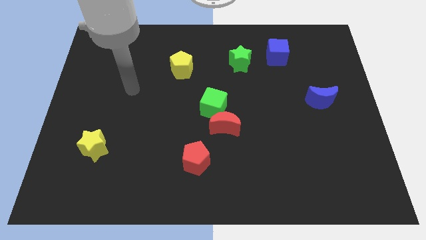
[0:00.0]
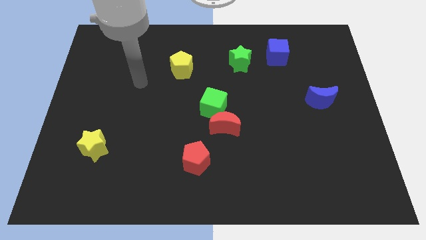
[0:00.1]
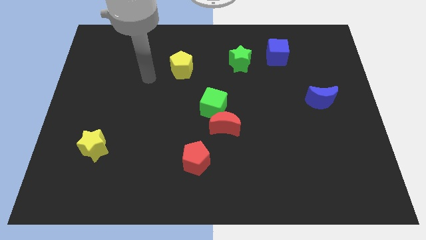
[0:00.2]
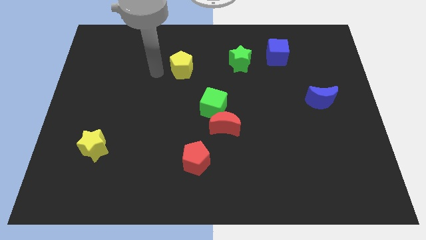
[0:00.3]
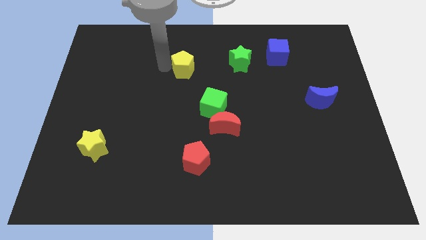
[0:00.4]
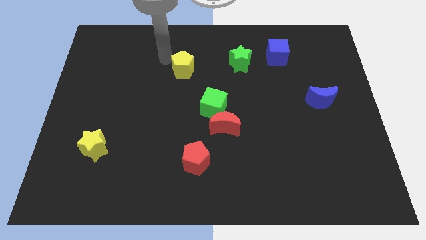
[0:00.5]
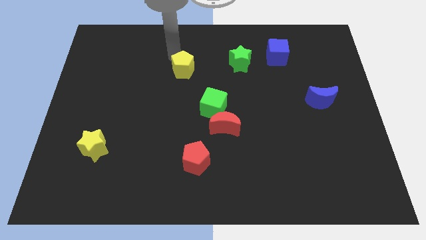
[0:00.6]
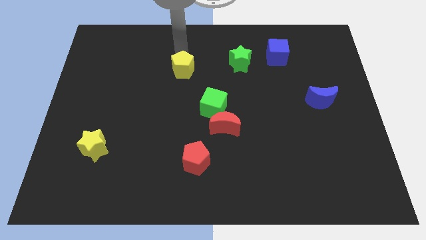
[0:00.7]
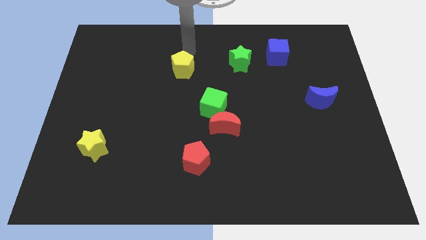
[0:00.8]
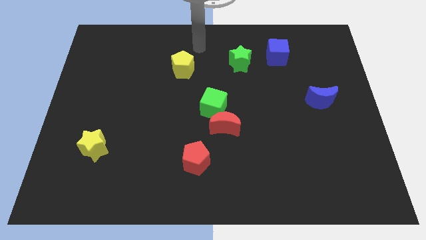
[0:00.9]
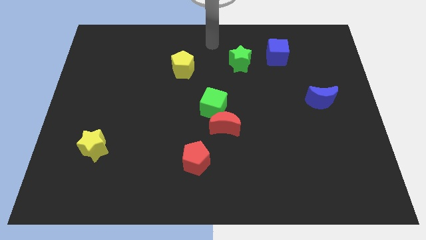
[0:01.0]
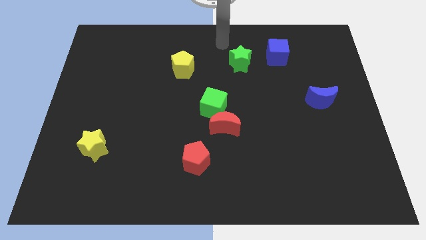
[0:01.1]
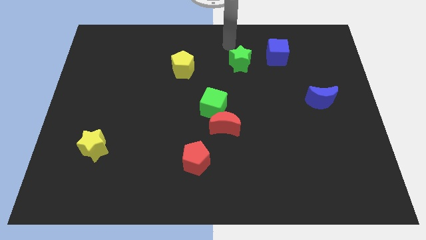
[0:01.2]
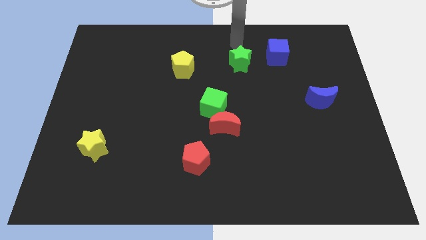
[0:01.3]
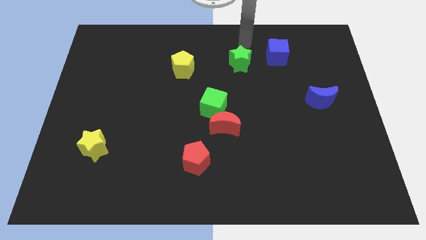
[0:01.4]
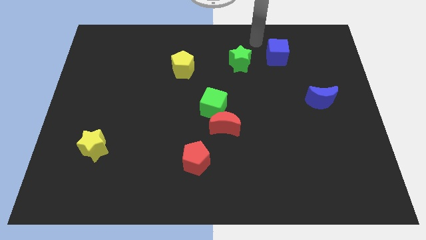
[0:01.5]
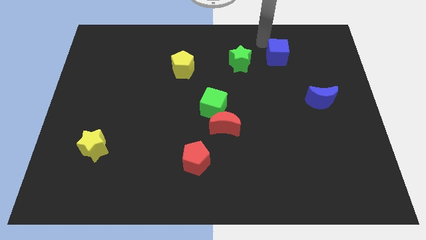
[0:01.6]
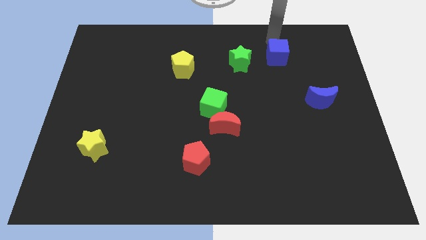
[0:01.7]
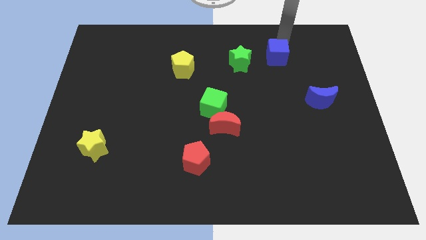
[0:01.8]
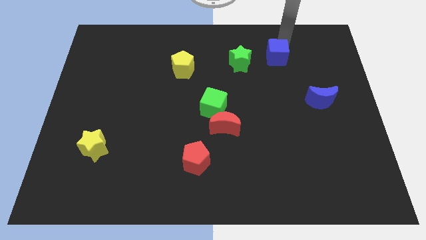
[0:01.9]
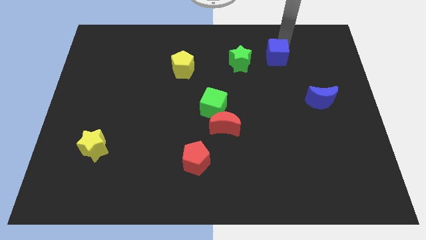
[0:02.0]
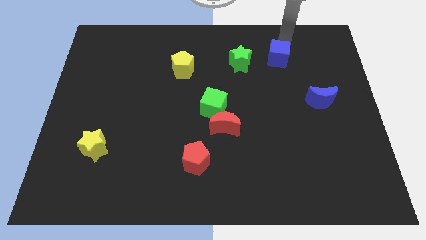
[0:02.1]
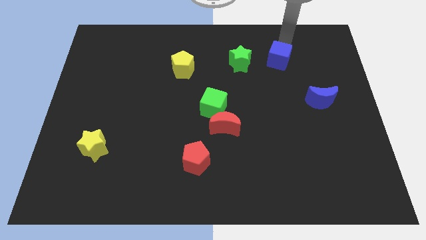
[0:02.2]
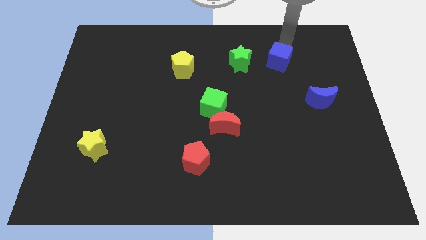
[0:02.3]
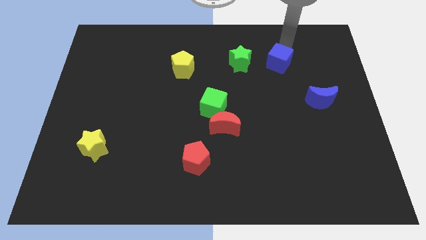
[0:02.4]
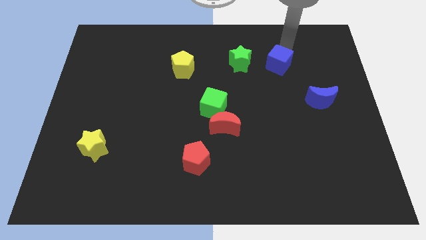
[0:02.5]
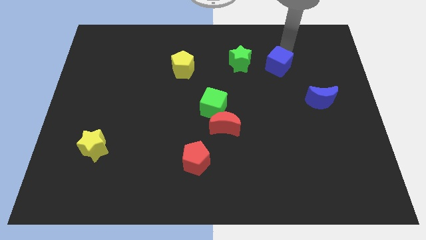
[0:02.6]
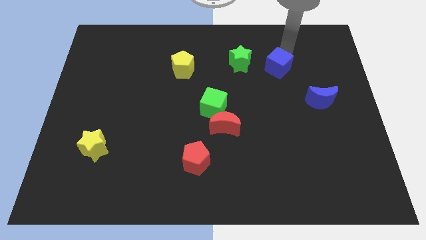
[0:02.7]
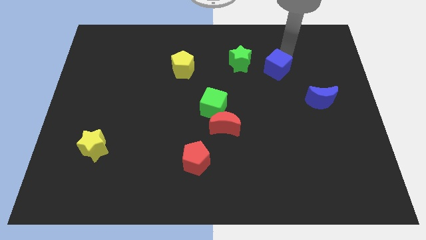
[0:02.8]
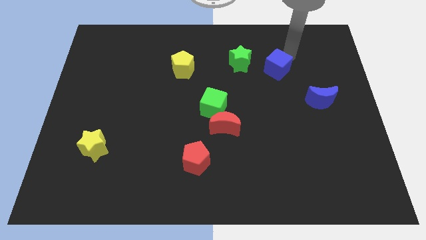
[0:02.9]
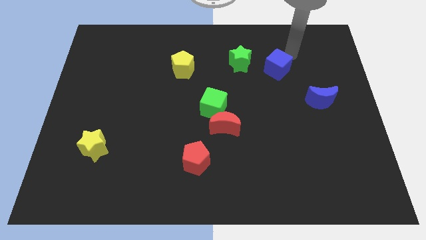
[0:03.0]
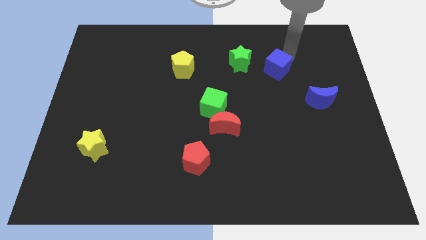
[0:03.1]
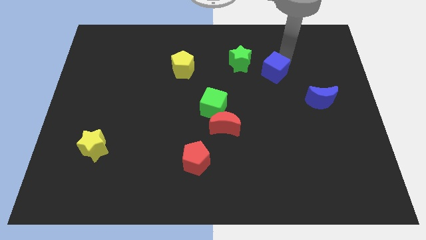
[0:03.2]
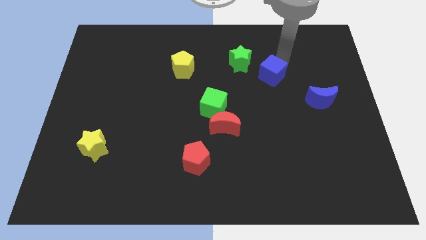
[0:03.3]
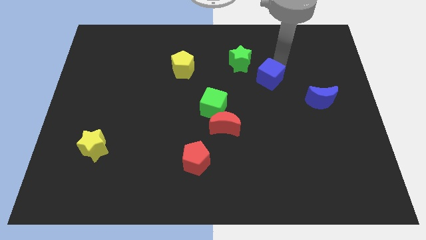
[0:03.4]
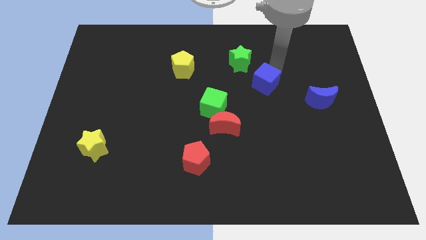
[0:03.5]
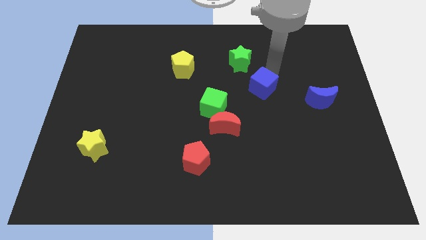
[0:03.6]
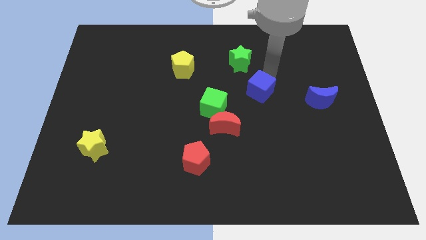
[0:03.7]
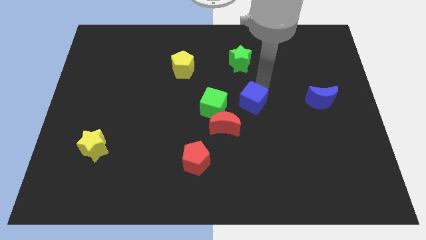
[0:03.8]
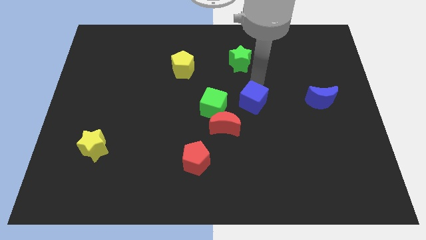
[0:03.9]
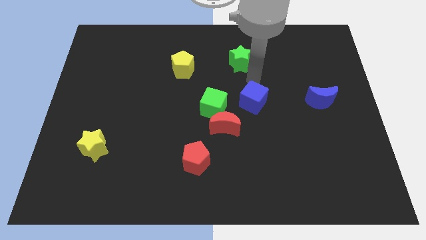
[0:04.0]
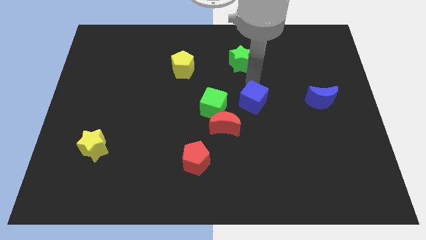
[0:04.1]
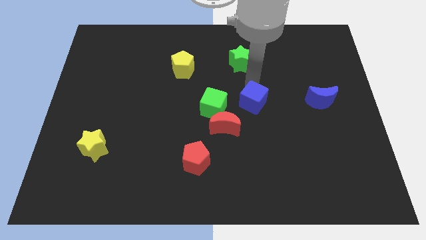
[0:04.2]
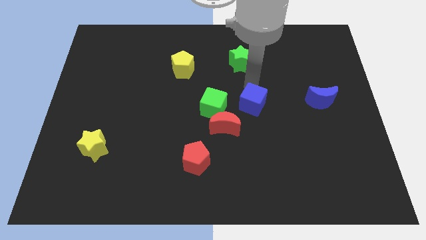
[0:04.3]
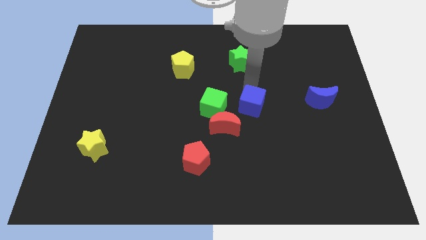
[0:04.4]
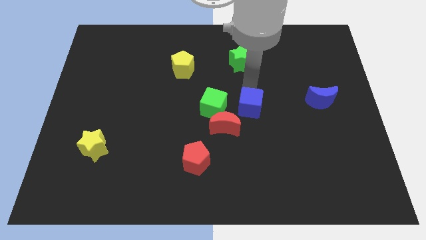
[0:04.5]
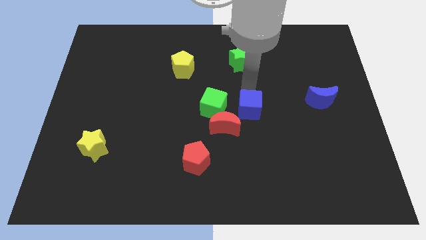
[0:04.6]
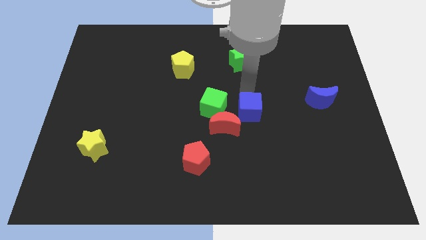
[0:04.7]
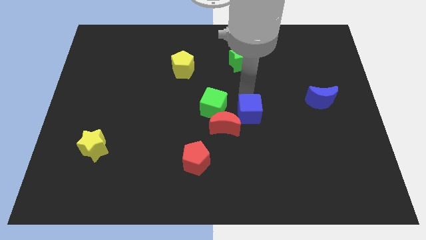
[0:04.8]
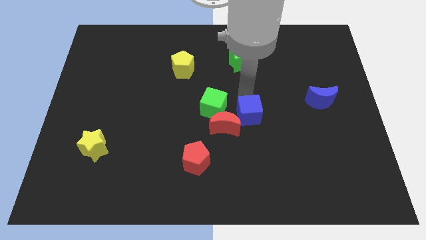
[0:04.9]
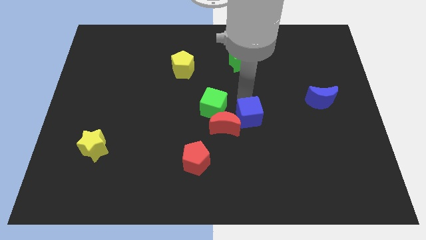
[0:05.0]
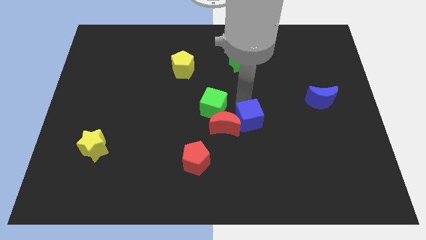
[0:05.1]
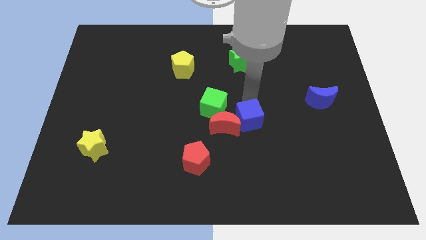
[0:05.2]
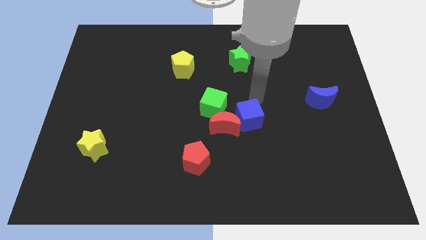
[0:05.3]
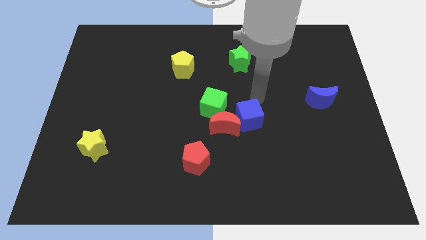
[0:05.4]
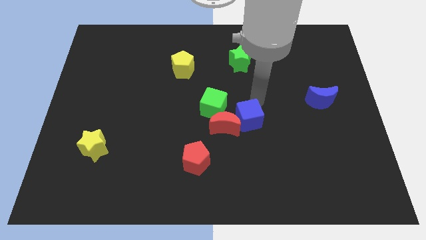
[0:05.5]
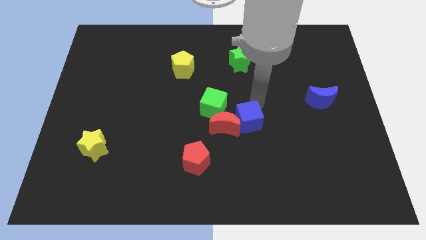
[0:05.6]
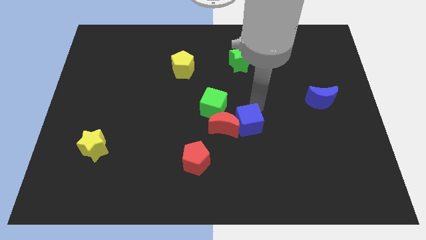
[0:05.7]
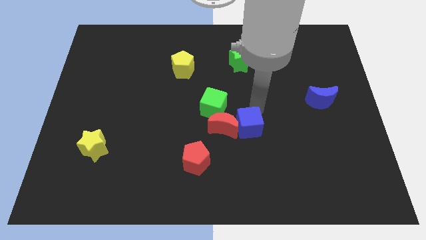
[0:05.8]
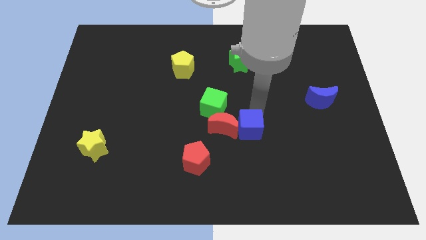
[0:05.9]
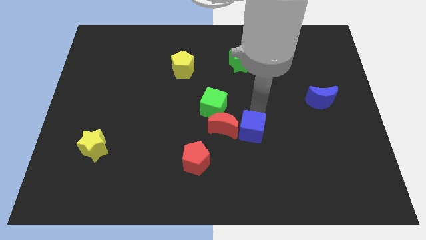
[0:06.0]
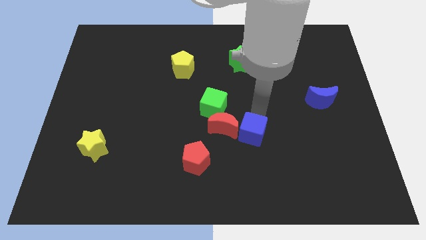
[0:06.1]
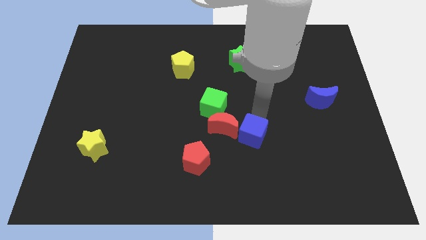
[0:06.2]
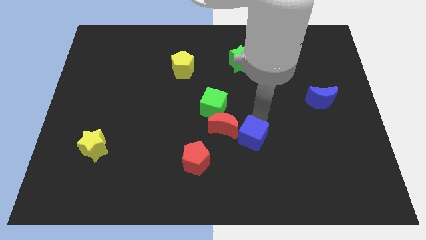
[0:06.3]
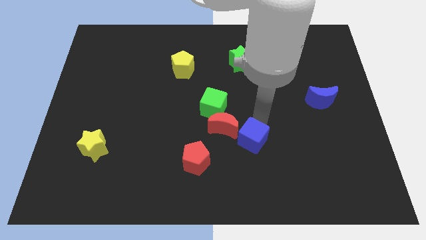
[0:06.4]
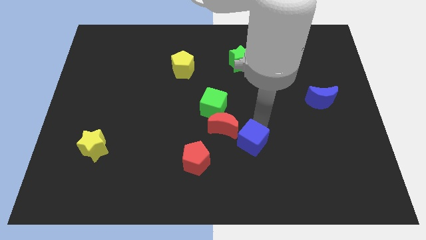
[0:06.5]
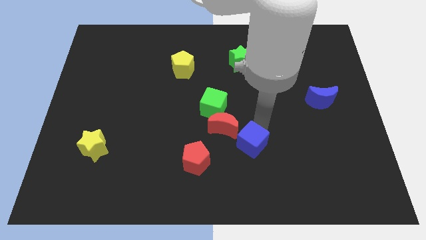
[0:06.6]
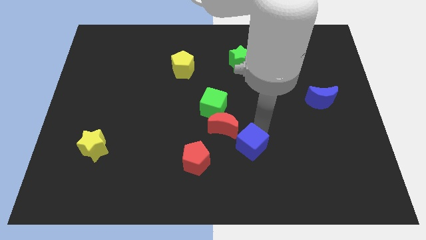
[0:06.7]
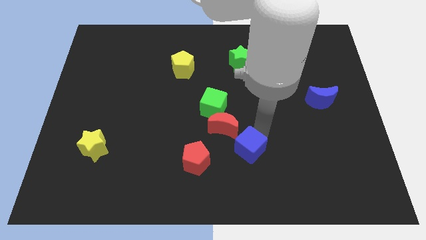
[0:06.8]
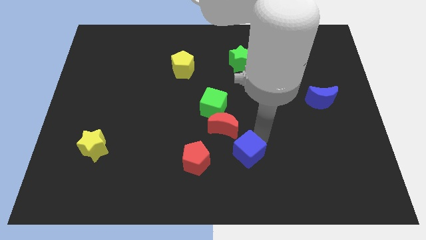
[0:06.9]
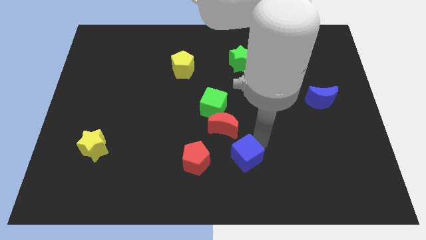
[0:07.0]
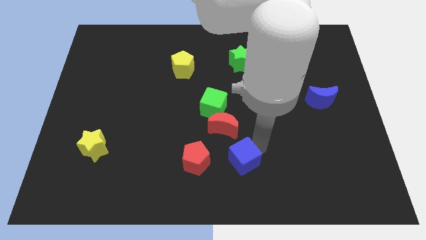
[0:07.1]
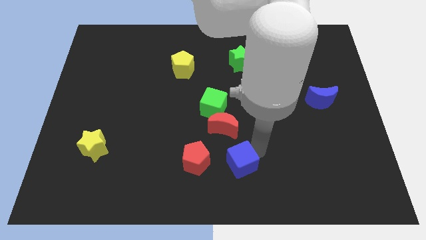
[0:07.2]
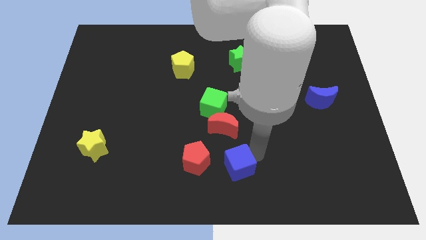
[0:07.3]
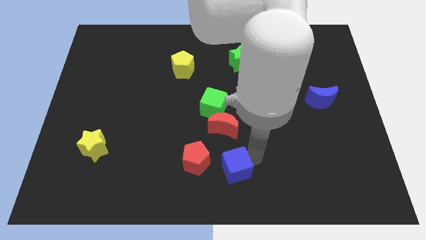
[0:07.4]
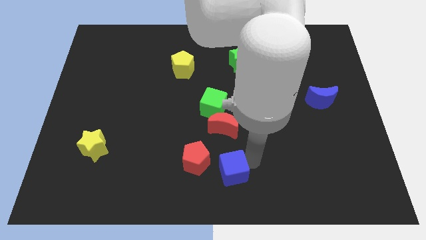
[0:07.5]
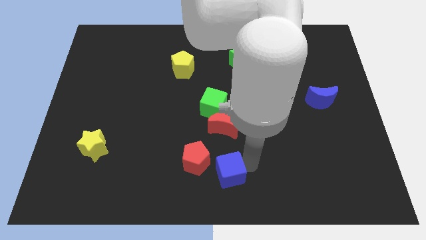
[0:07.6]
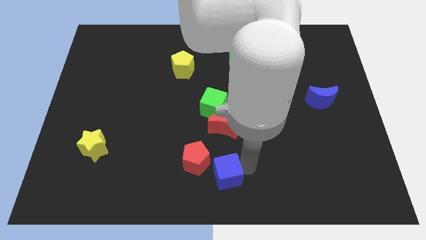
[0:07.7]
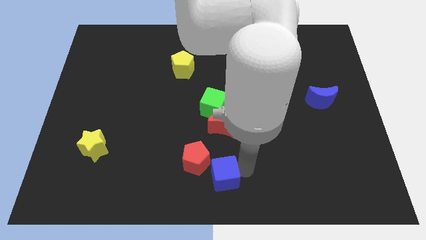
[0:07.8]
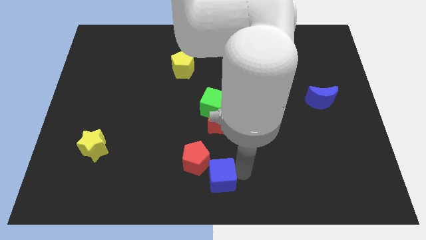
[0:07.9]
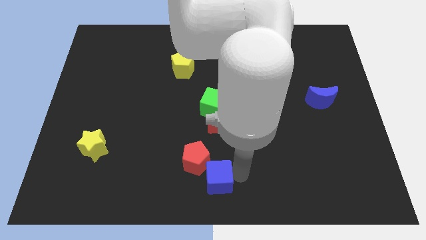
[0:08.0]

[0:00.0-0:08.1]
push the blue cube close to the red pentagon
